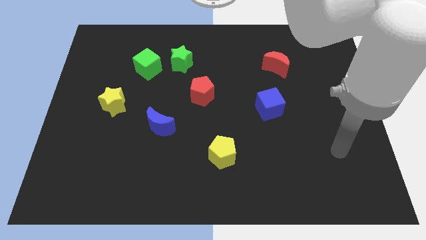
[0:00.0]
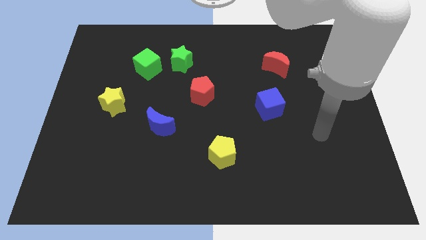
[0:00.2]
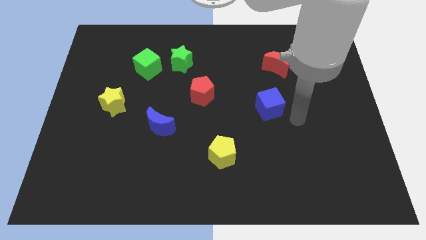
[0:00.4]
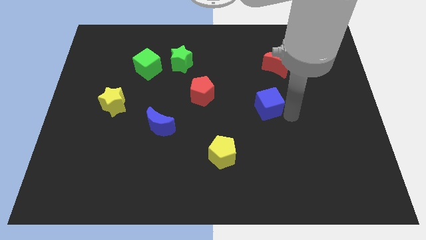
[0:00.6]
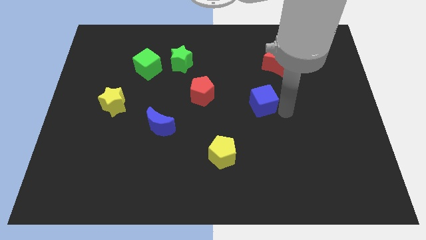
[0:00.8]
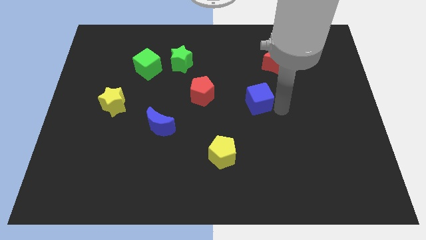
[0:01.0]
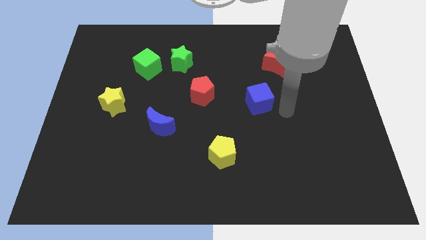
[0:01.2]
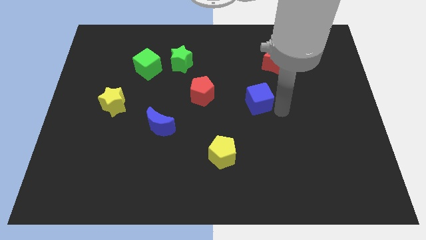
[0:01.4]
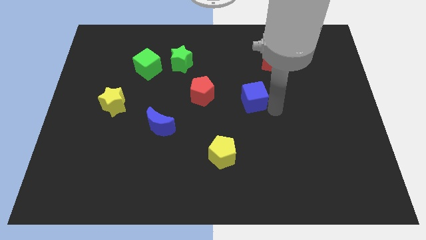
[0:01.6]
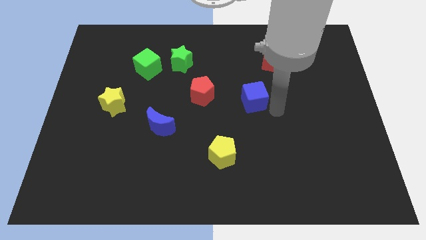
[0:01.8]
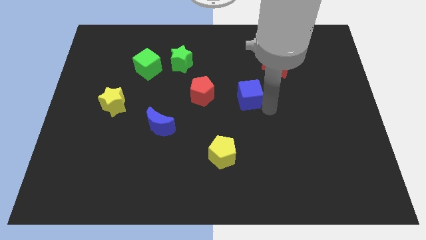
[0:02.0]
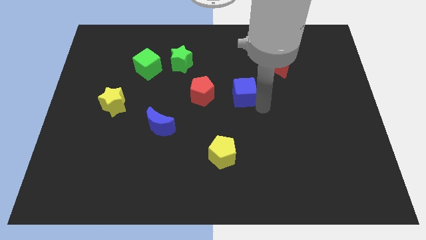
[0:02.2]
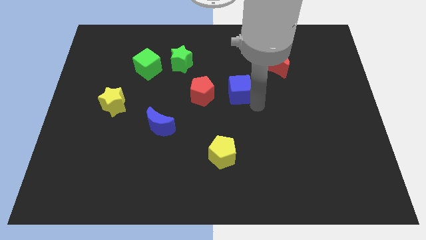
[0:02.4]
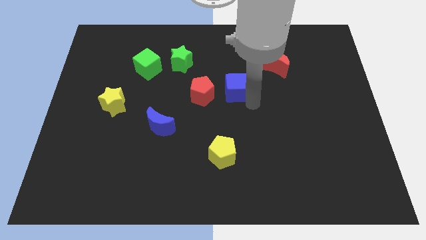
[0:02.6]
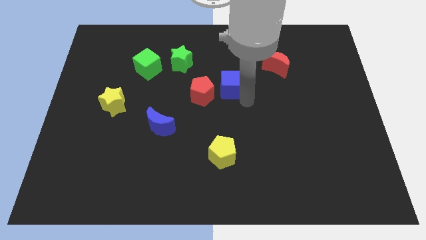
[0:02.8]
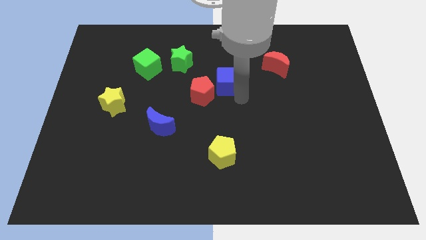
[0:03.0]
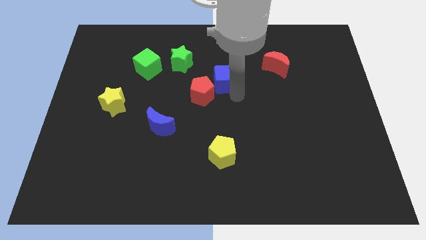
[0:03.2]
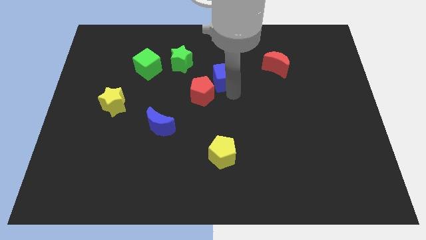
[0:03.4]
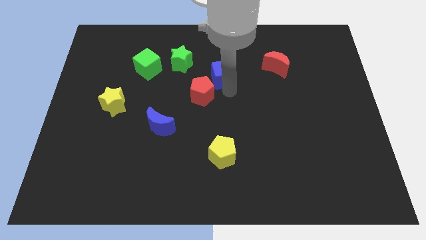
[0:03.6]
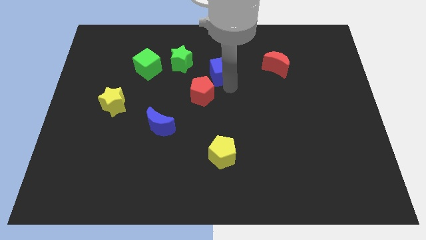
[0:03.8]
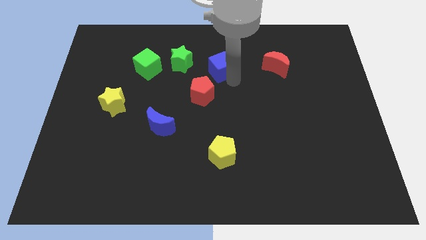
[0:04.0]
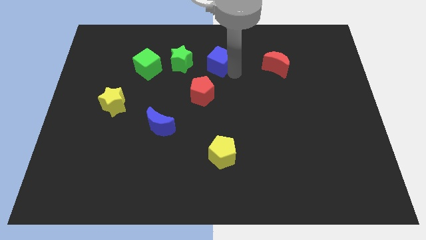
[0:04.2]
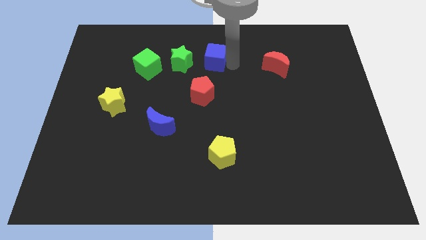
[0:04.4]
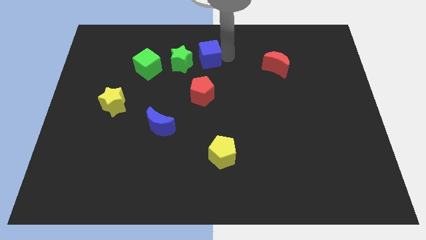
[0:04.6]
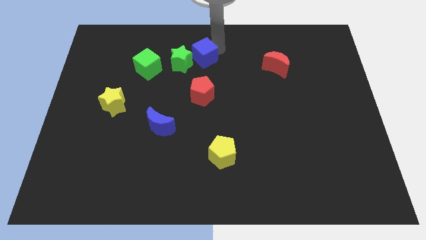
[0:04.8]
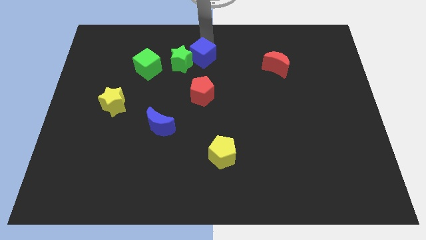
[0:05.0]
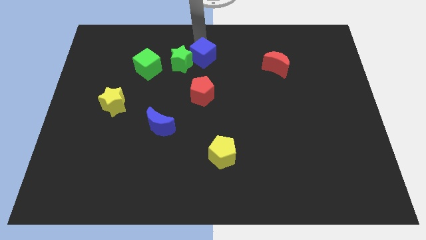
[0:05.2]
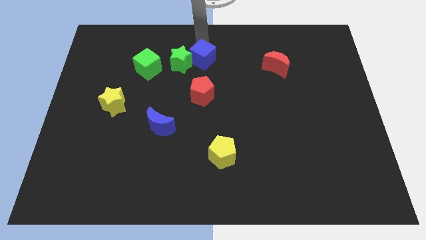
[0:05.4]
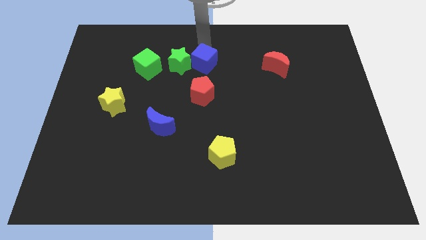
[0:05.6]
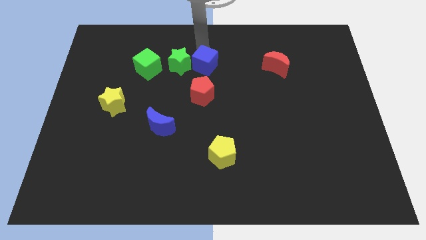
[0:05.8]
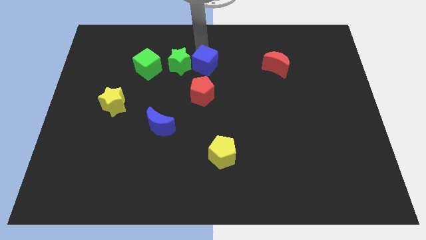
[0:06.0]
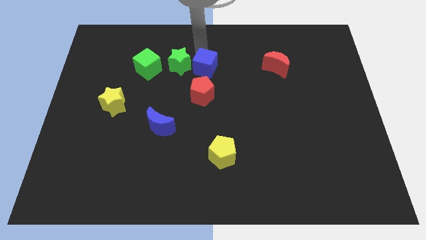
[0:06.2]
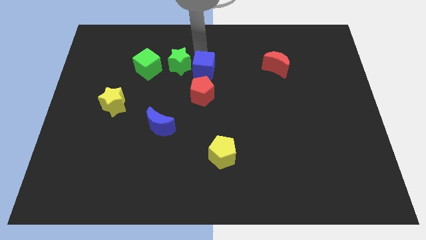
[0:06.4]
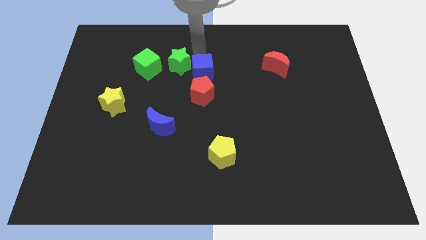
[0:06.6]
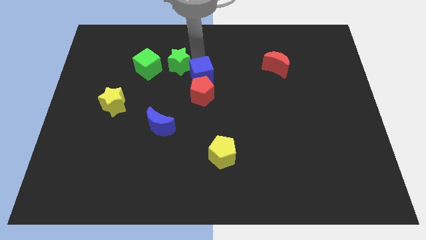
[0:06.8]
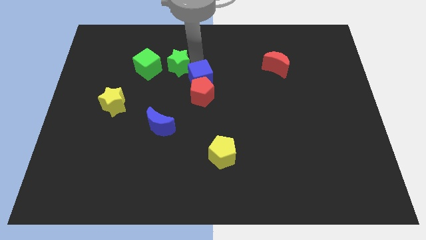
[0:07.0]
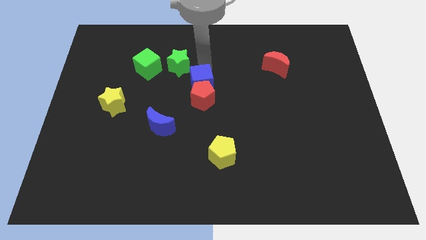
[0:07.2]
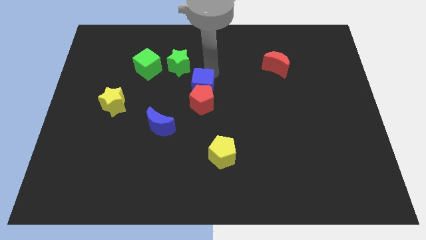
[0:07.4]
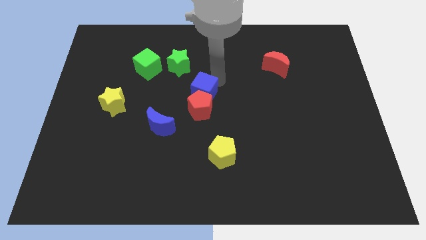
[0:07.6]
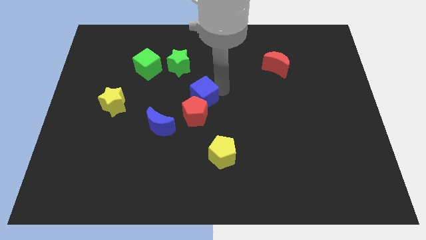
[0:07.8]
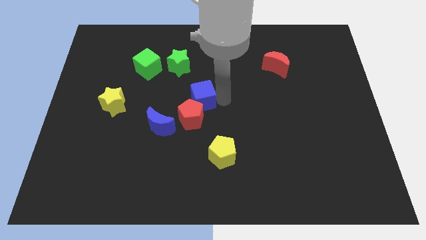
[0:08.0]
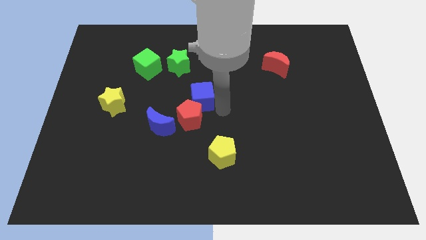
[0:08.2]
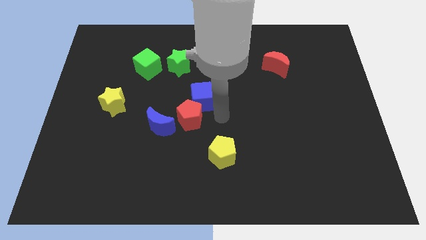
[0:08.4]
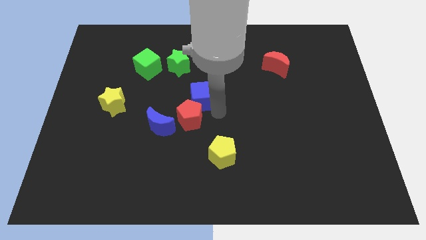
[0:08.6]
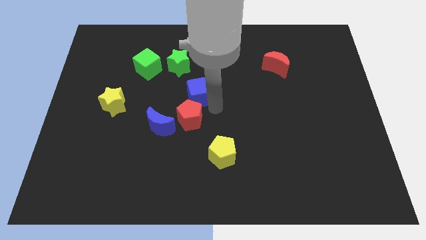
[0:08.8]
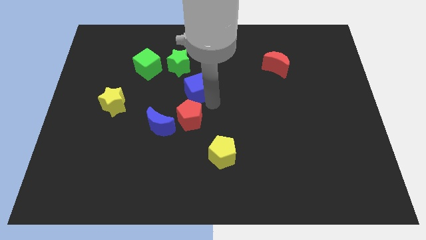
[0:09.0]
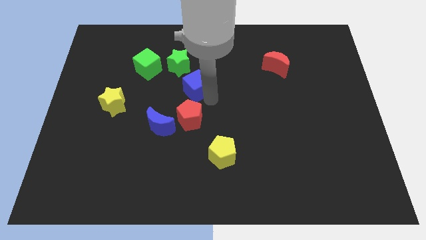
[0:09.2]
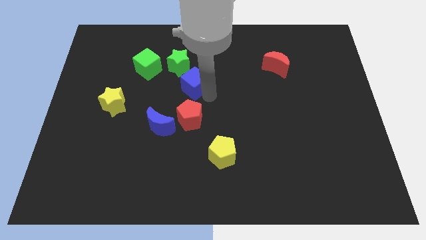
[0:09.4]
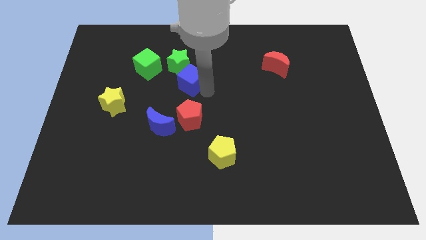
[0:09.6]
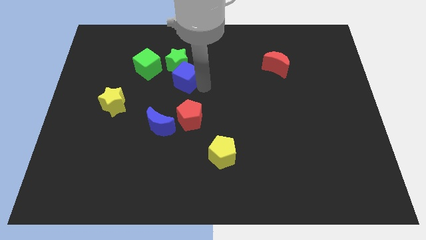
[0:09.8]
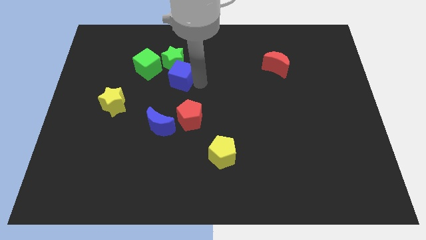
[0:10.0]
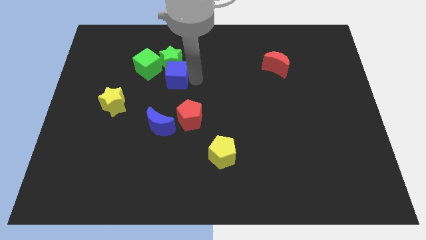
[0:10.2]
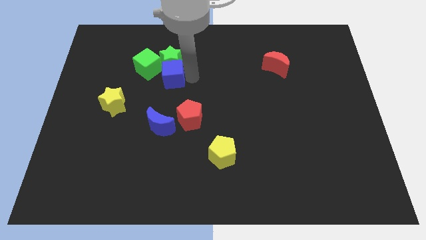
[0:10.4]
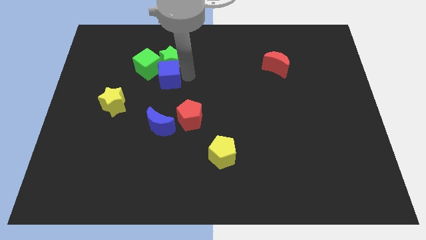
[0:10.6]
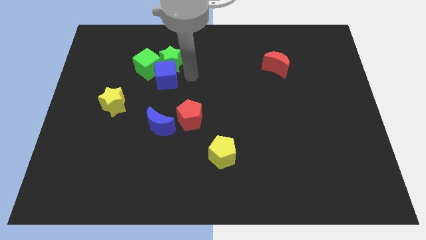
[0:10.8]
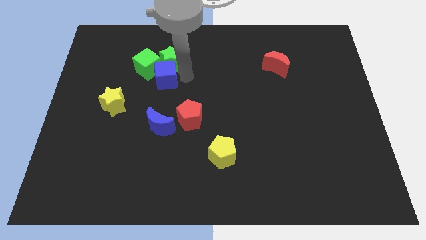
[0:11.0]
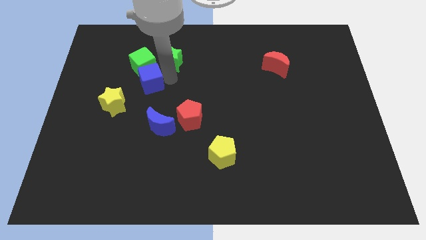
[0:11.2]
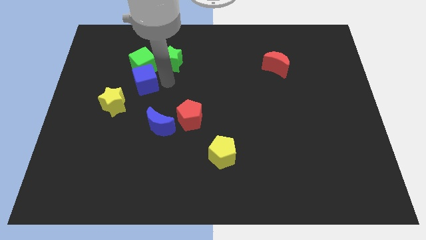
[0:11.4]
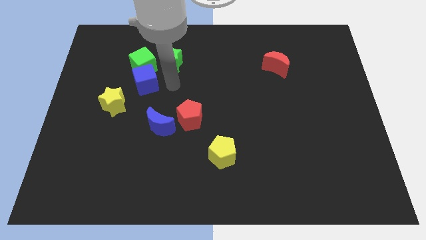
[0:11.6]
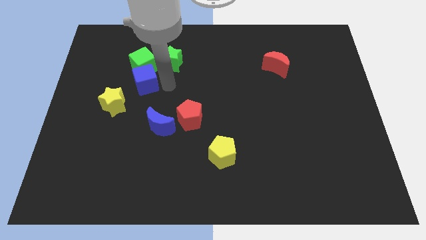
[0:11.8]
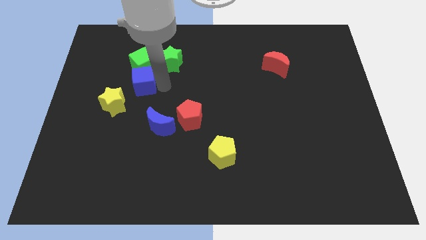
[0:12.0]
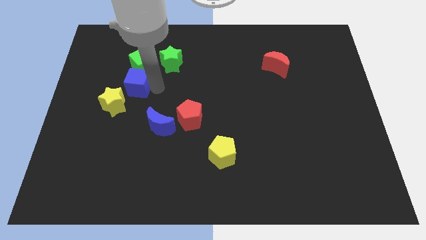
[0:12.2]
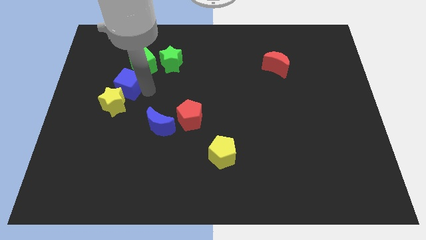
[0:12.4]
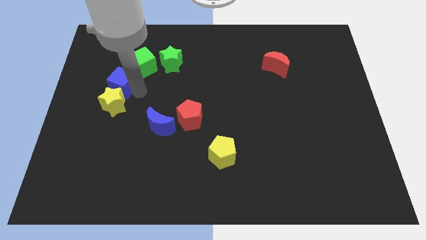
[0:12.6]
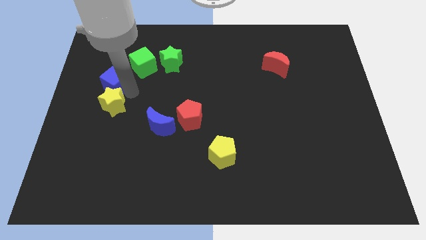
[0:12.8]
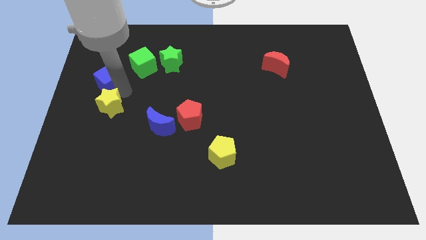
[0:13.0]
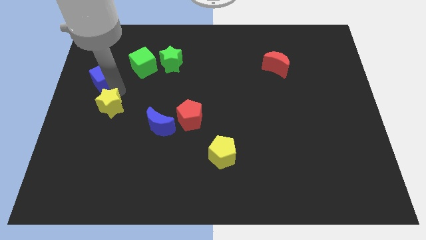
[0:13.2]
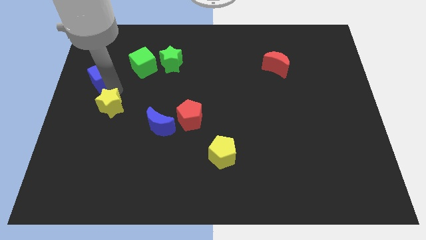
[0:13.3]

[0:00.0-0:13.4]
push the blue cube to the left of the green cube
